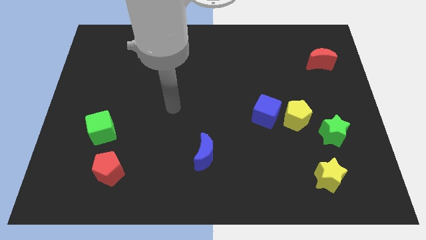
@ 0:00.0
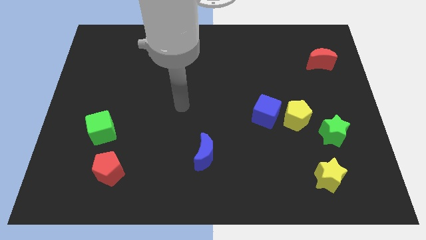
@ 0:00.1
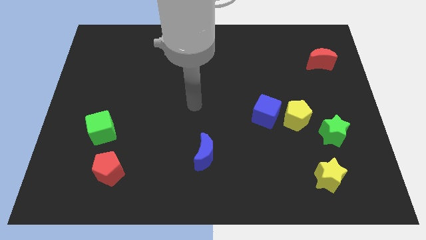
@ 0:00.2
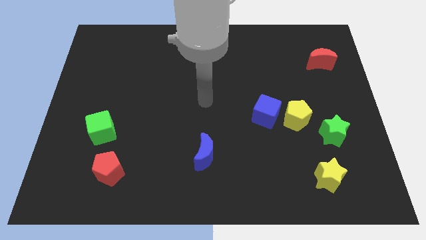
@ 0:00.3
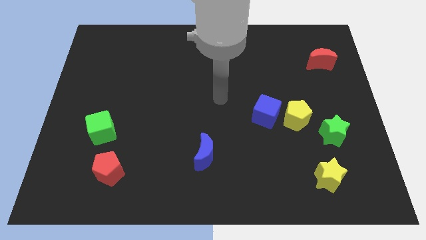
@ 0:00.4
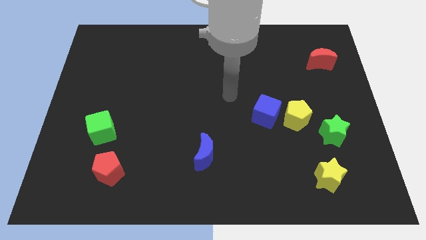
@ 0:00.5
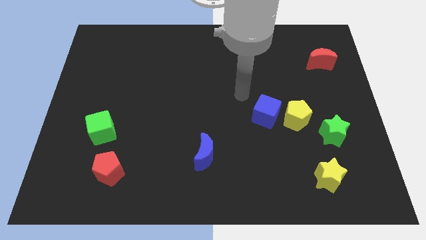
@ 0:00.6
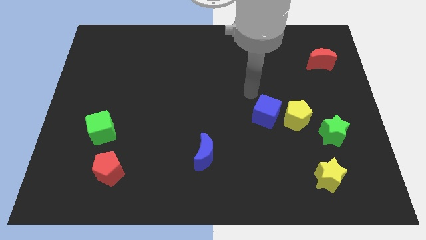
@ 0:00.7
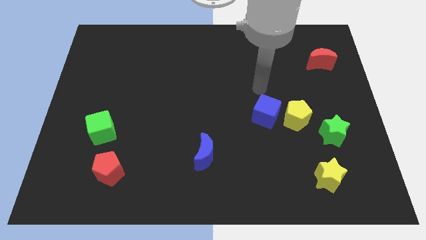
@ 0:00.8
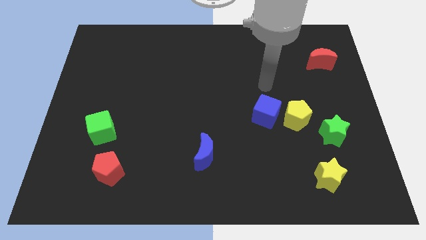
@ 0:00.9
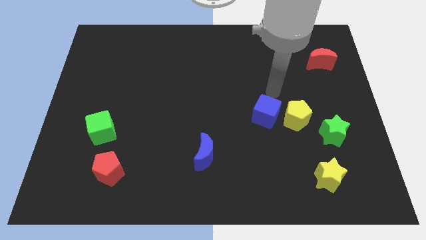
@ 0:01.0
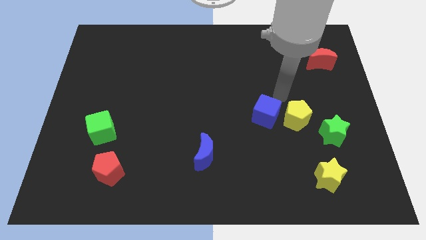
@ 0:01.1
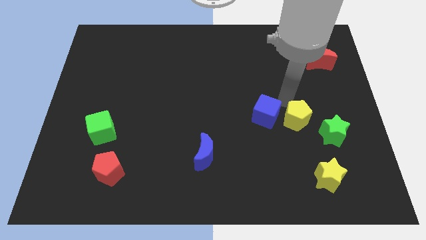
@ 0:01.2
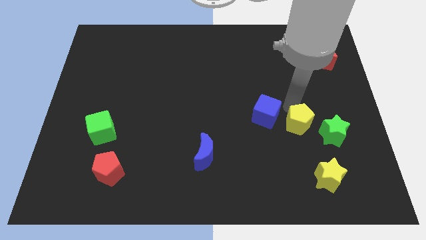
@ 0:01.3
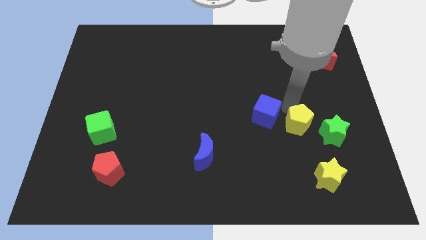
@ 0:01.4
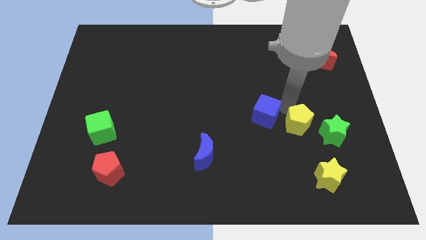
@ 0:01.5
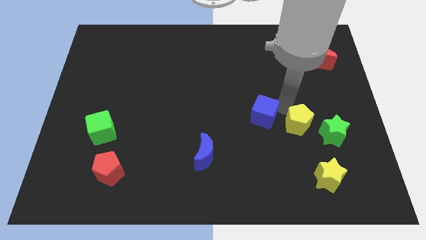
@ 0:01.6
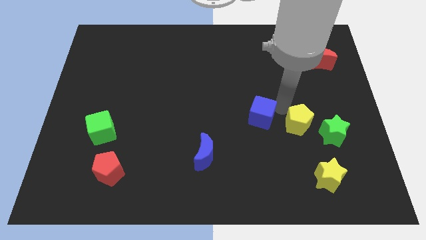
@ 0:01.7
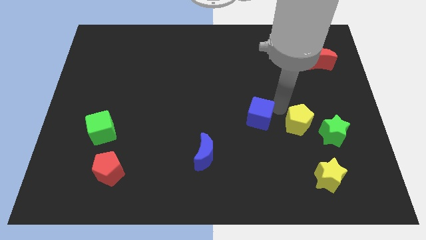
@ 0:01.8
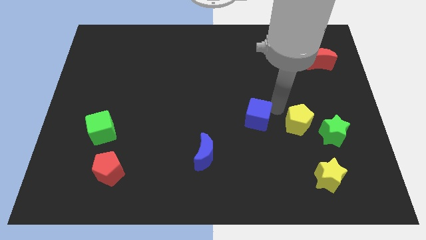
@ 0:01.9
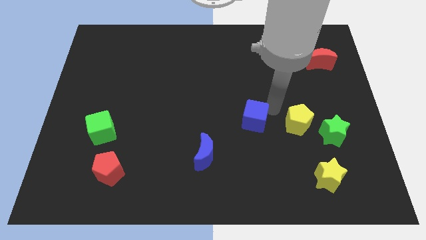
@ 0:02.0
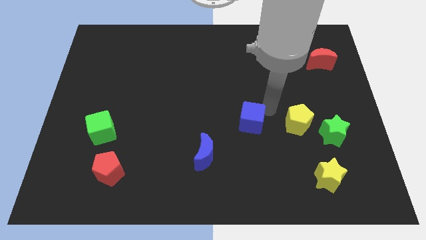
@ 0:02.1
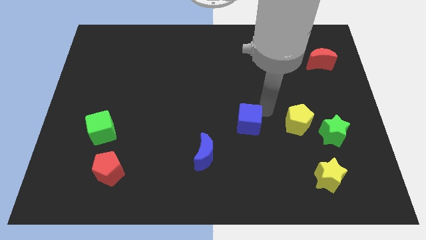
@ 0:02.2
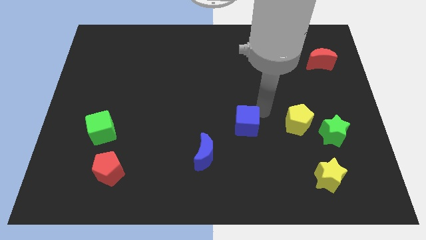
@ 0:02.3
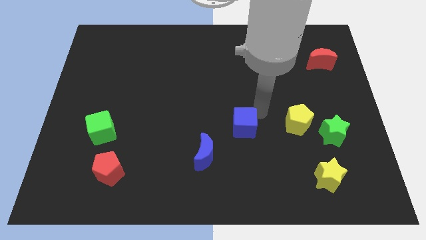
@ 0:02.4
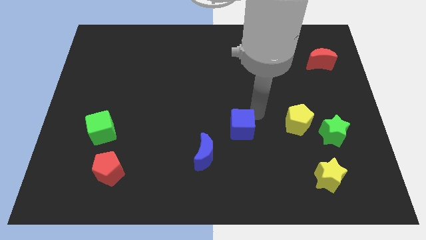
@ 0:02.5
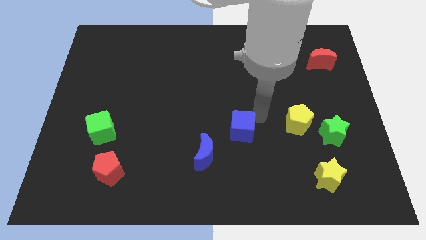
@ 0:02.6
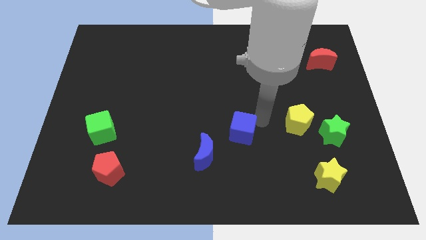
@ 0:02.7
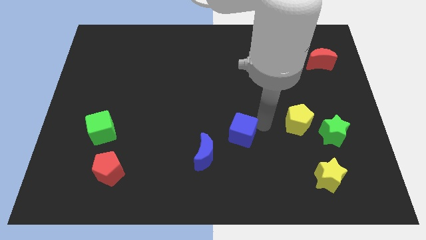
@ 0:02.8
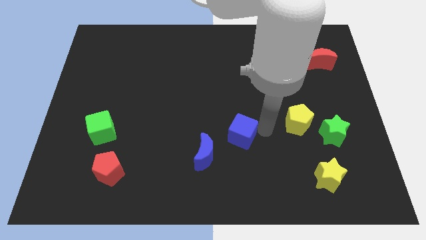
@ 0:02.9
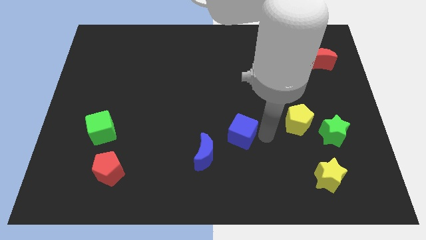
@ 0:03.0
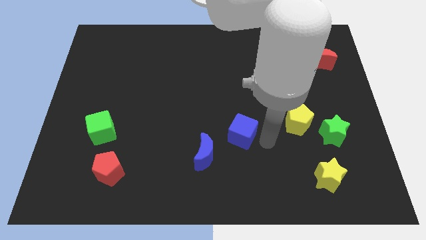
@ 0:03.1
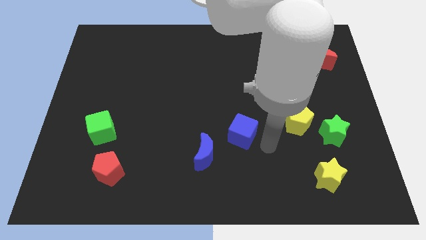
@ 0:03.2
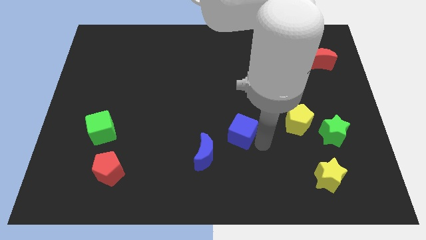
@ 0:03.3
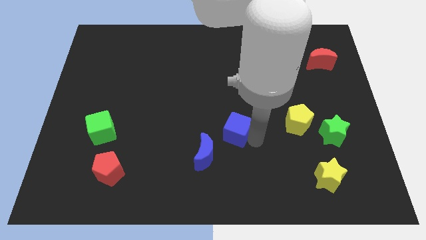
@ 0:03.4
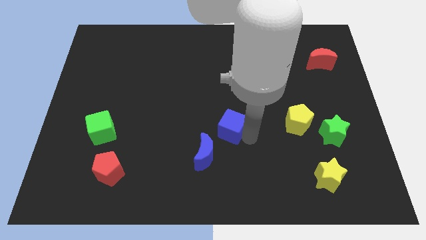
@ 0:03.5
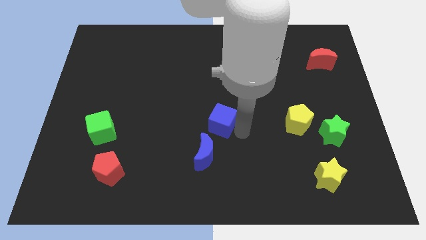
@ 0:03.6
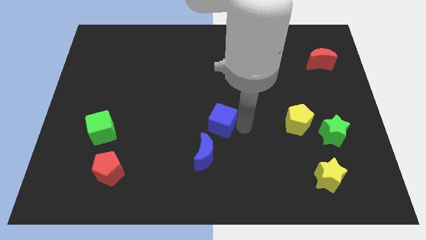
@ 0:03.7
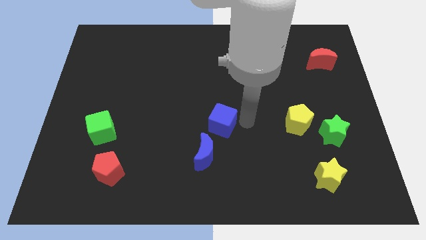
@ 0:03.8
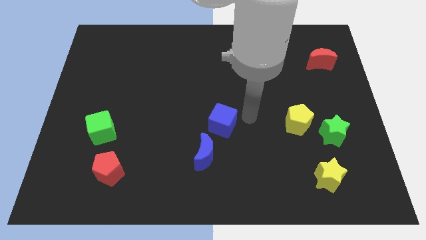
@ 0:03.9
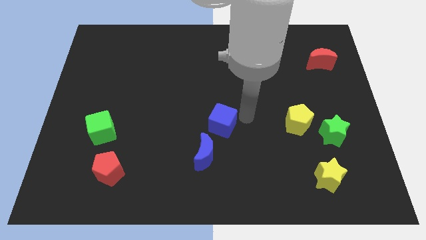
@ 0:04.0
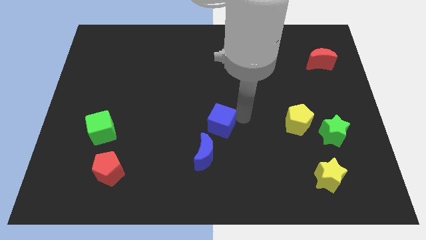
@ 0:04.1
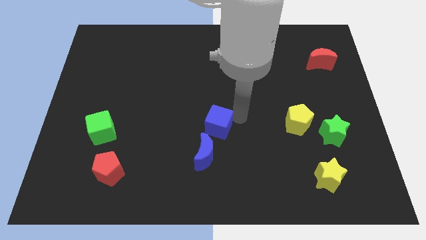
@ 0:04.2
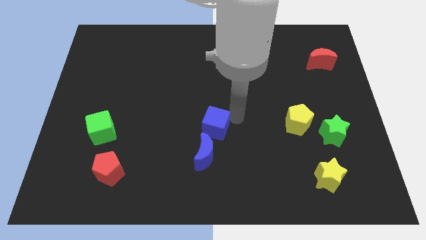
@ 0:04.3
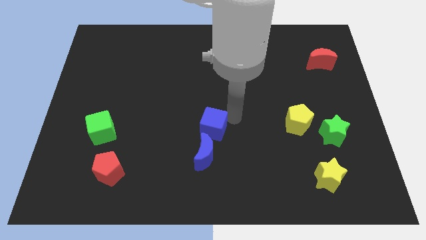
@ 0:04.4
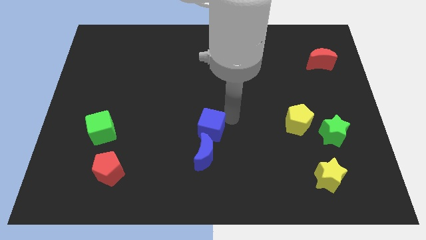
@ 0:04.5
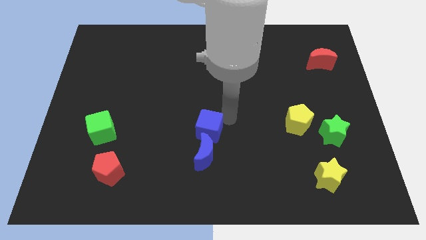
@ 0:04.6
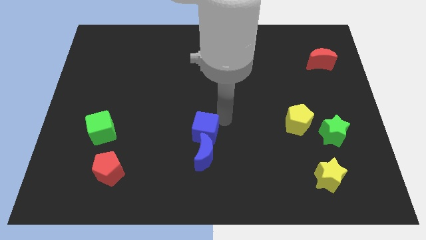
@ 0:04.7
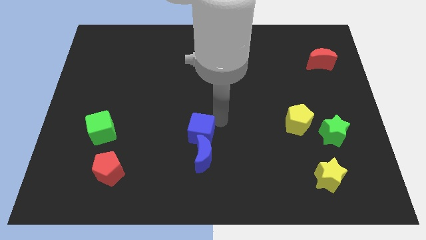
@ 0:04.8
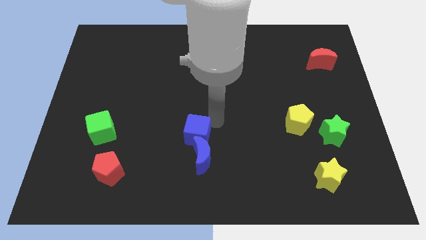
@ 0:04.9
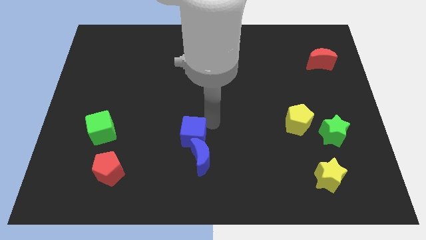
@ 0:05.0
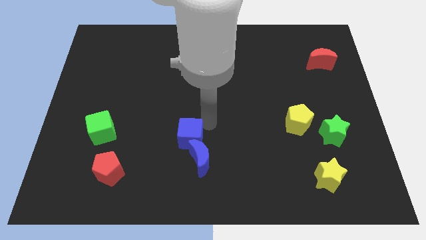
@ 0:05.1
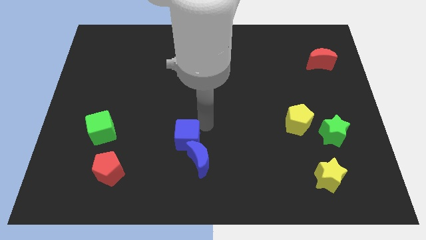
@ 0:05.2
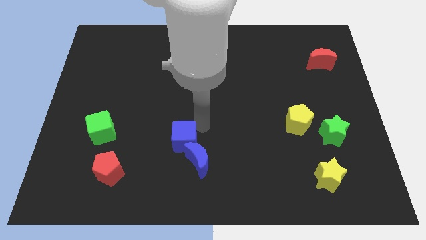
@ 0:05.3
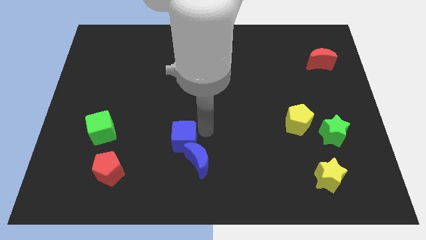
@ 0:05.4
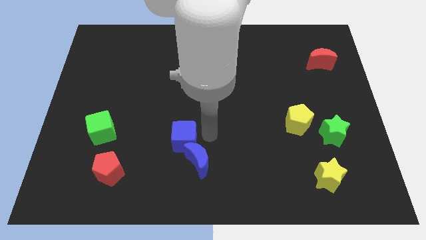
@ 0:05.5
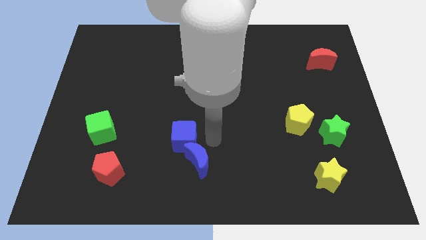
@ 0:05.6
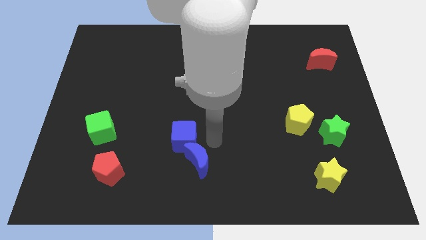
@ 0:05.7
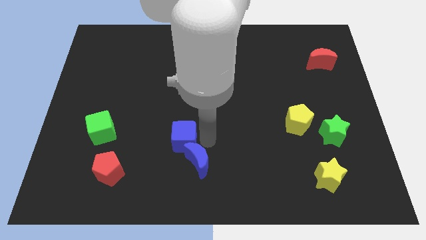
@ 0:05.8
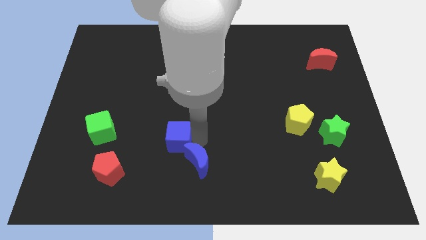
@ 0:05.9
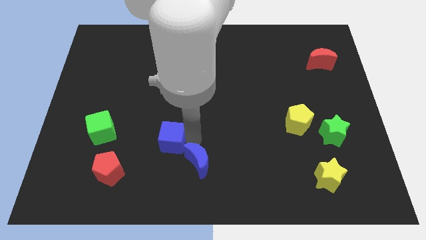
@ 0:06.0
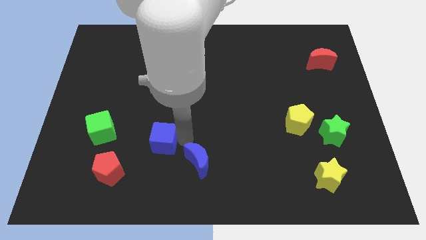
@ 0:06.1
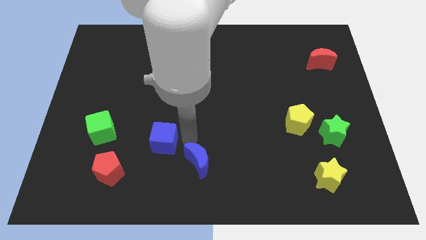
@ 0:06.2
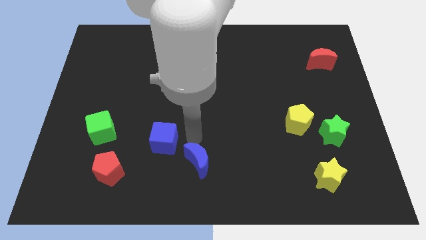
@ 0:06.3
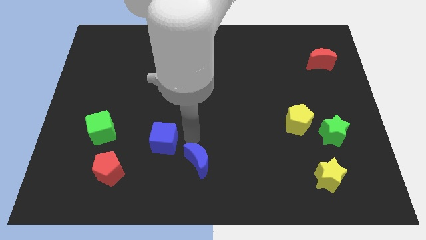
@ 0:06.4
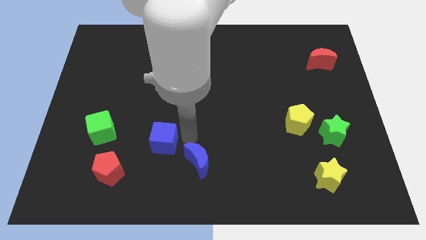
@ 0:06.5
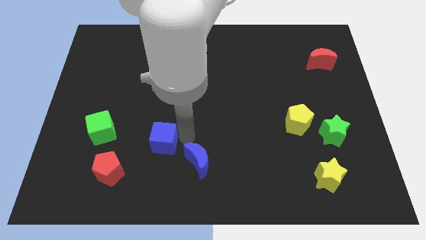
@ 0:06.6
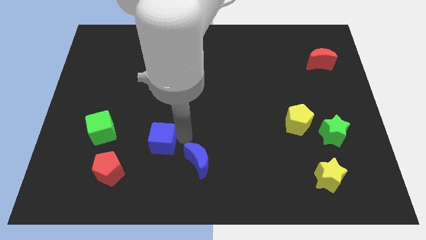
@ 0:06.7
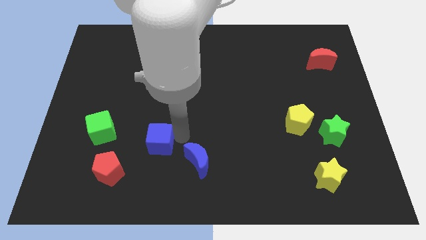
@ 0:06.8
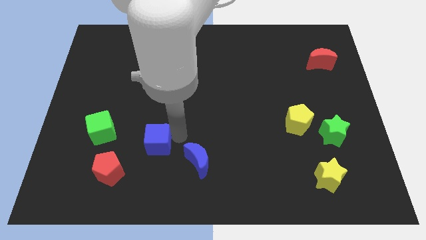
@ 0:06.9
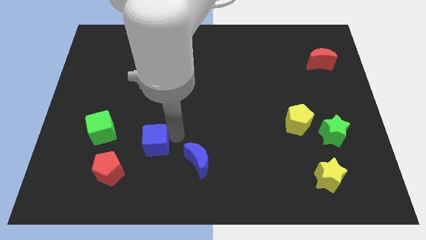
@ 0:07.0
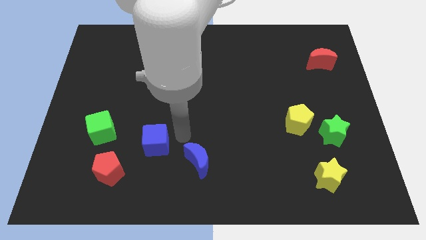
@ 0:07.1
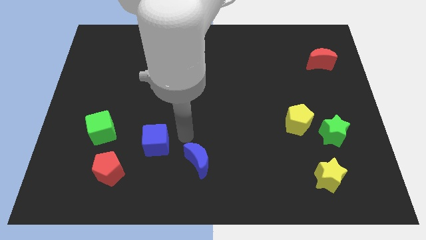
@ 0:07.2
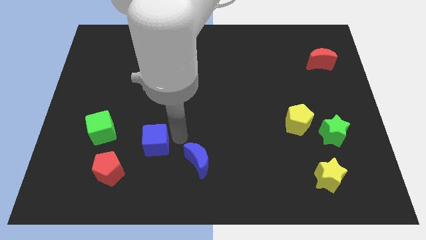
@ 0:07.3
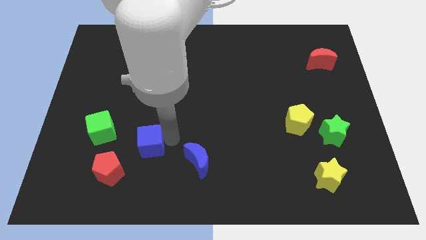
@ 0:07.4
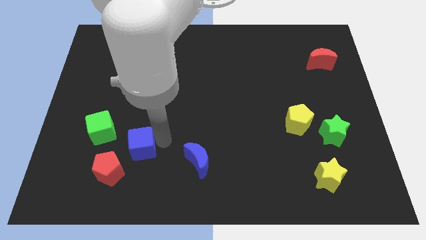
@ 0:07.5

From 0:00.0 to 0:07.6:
push the blue cube diagonally down and to the right of the green cube

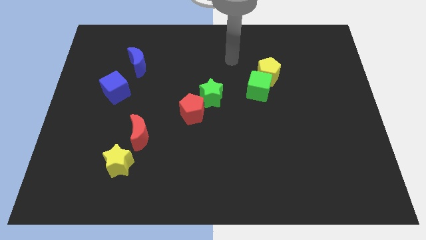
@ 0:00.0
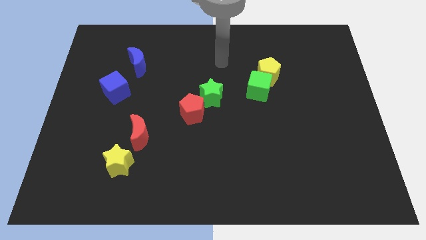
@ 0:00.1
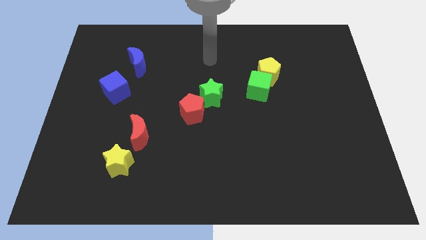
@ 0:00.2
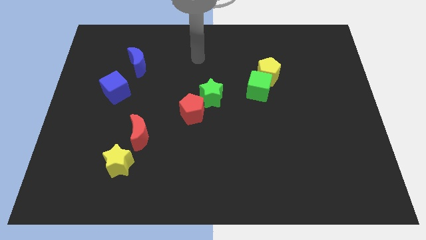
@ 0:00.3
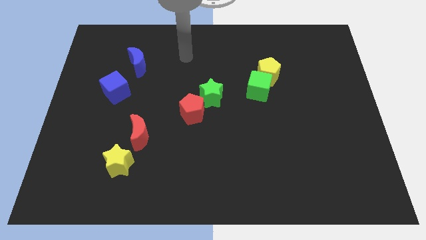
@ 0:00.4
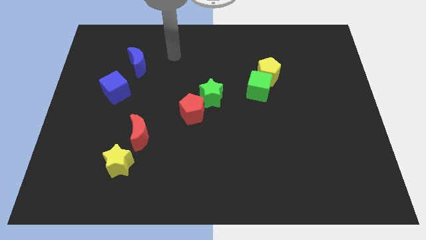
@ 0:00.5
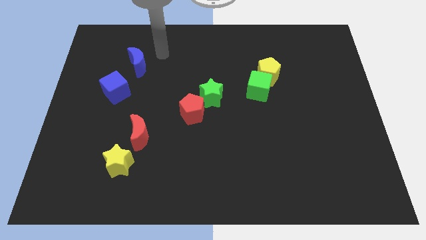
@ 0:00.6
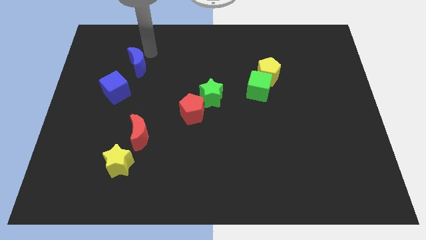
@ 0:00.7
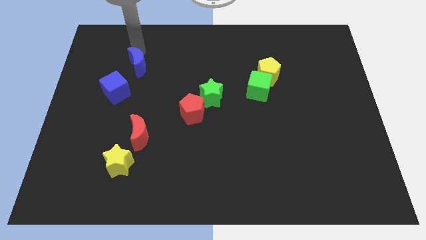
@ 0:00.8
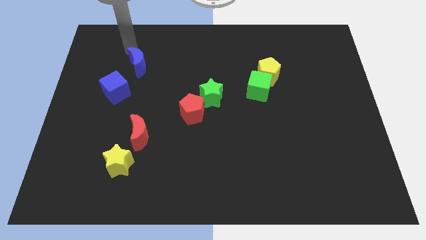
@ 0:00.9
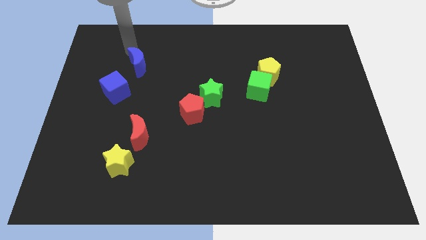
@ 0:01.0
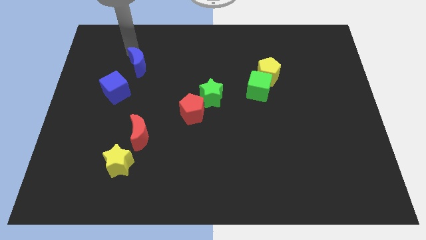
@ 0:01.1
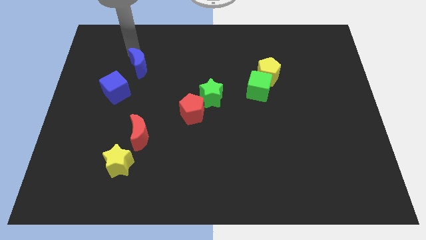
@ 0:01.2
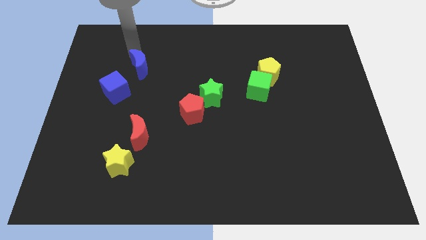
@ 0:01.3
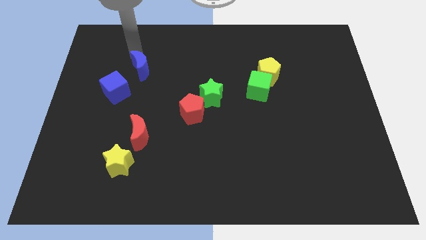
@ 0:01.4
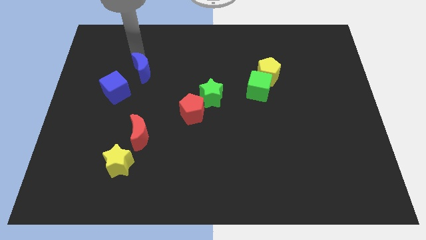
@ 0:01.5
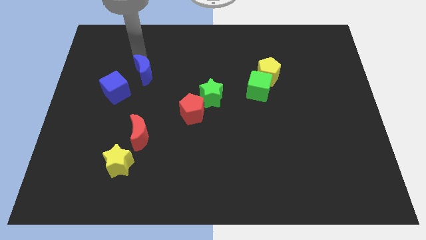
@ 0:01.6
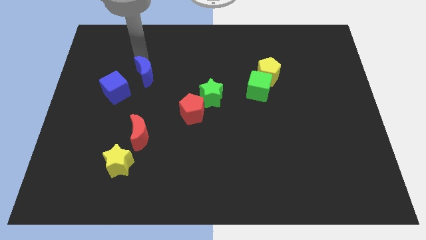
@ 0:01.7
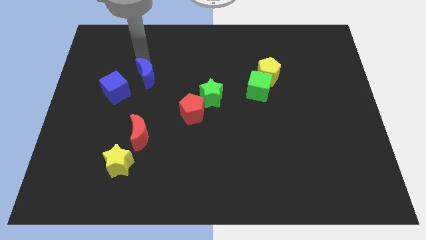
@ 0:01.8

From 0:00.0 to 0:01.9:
put the blue moon to the right of the blue cube
